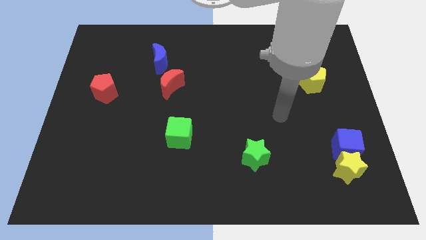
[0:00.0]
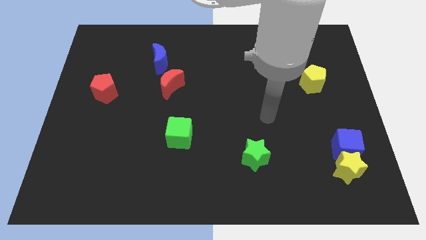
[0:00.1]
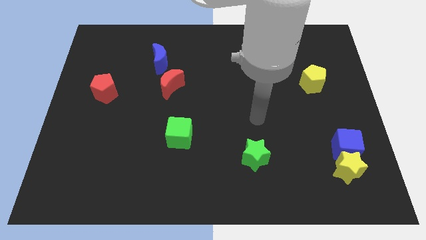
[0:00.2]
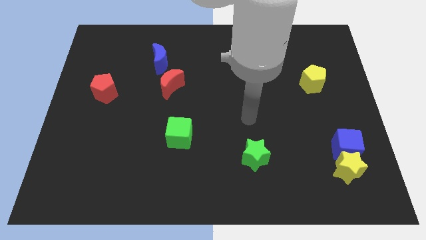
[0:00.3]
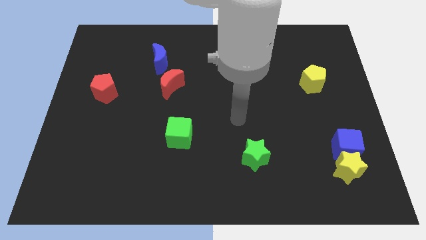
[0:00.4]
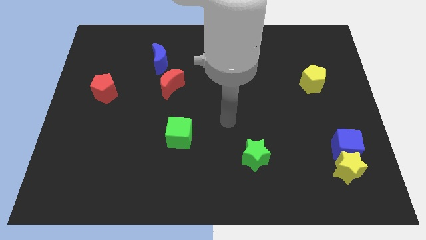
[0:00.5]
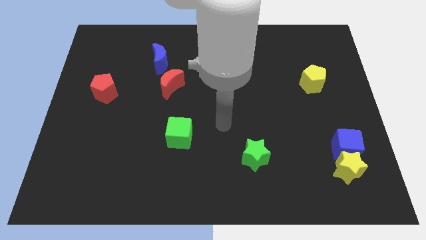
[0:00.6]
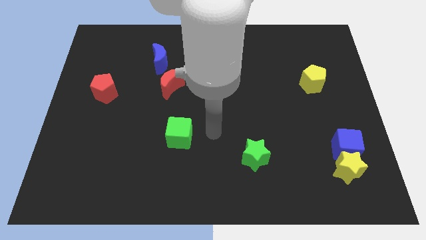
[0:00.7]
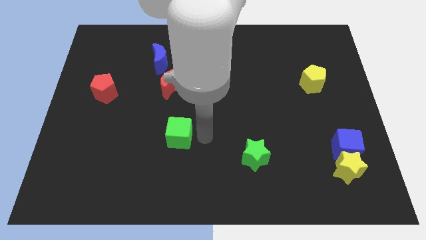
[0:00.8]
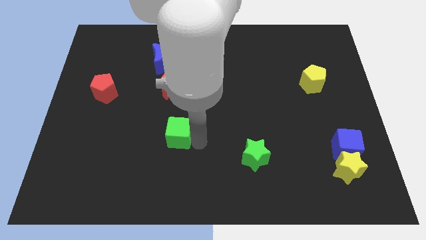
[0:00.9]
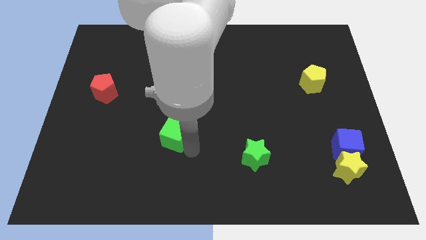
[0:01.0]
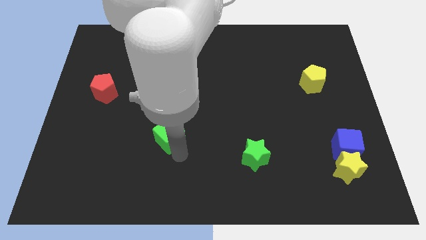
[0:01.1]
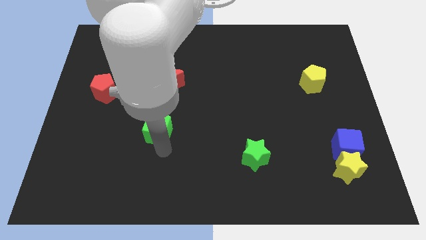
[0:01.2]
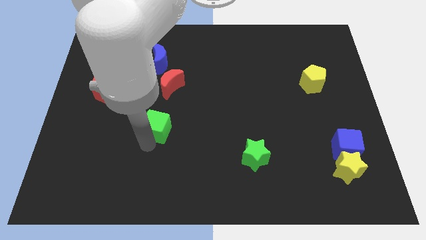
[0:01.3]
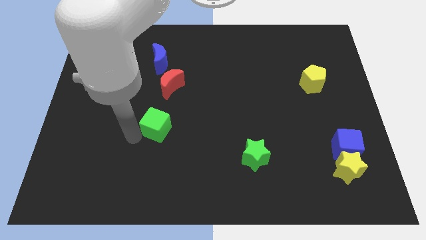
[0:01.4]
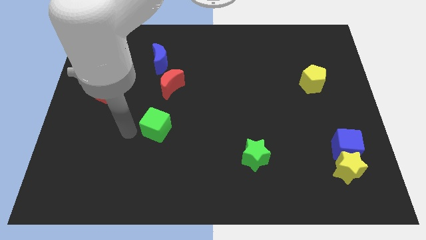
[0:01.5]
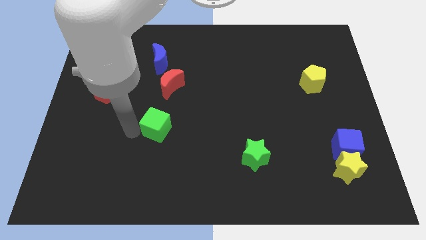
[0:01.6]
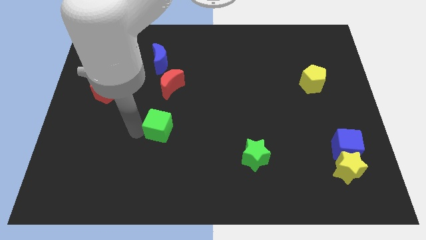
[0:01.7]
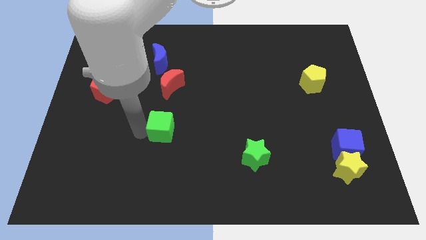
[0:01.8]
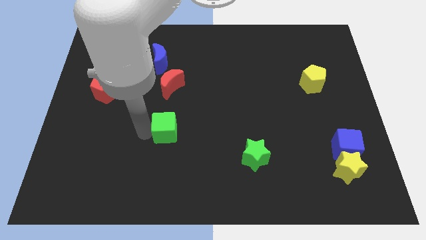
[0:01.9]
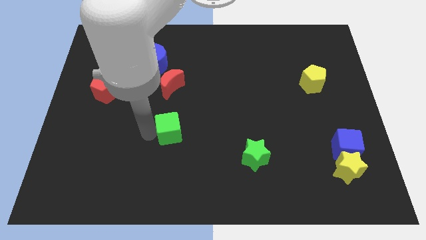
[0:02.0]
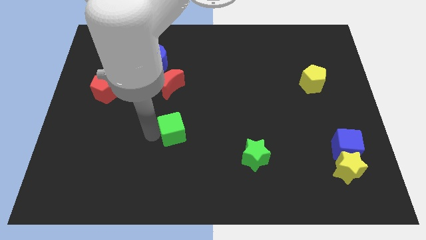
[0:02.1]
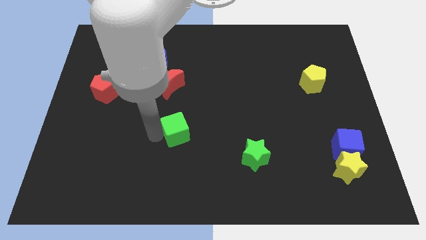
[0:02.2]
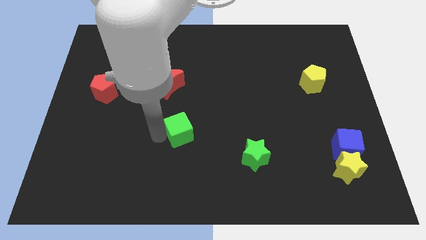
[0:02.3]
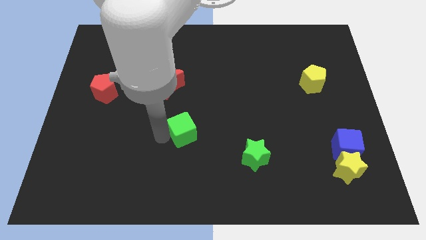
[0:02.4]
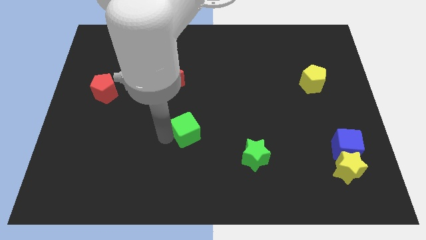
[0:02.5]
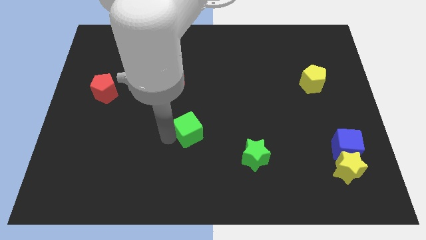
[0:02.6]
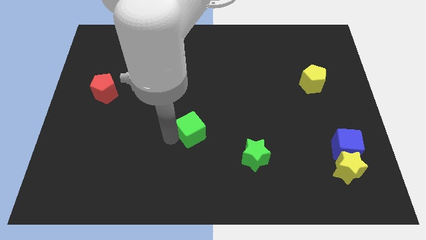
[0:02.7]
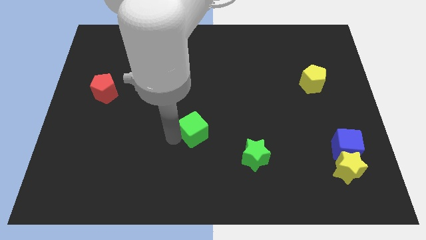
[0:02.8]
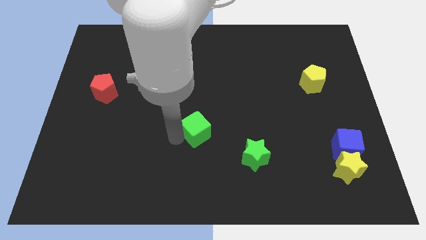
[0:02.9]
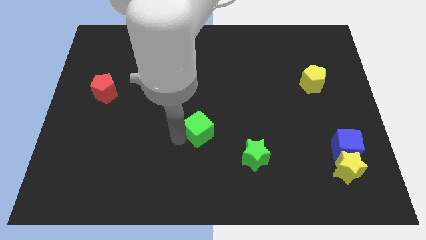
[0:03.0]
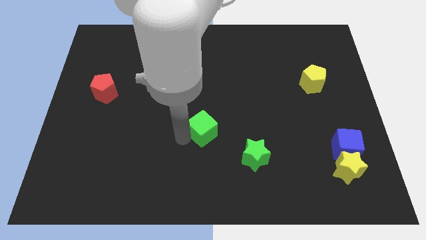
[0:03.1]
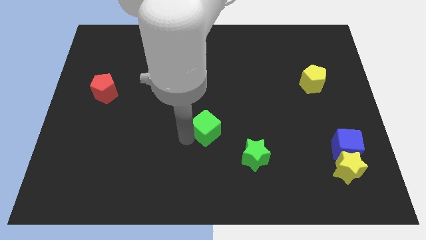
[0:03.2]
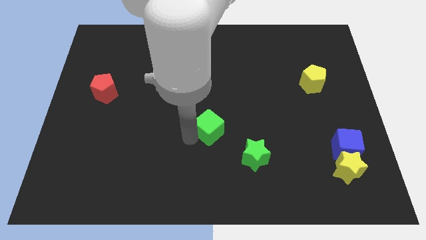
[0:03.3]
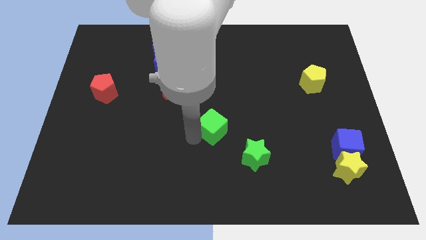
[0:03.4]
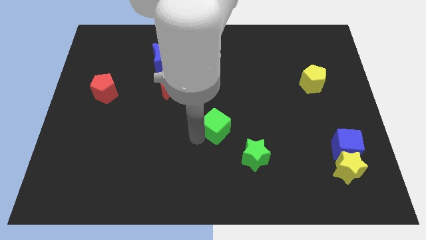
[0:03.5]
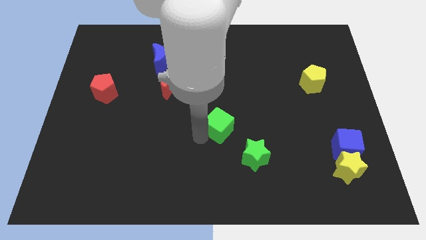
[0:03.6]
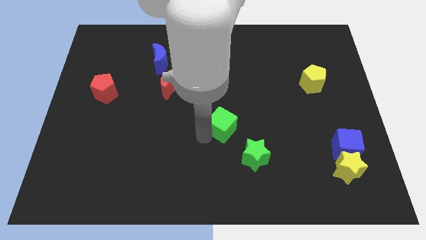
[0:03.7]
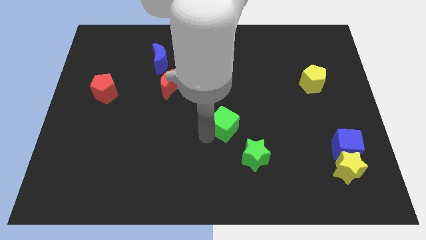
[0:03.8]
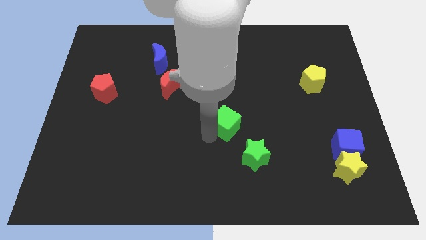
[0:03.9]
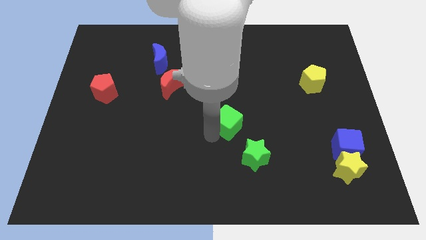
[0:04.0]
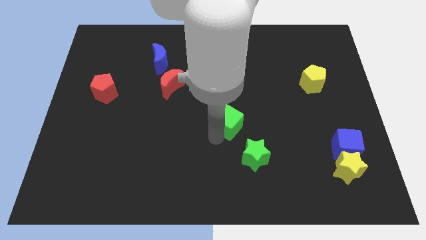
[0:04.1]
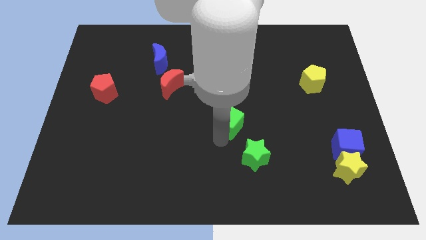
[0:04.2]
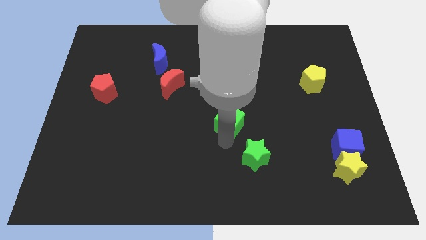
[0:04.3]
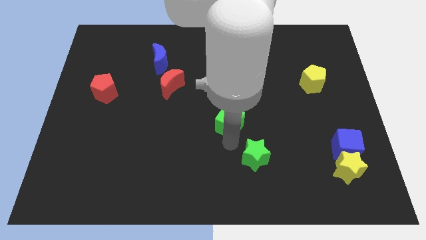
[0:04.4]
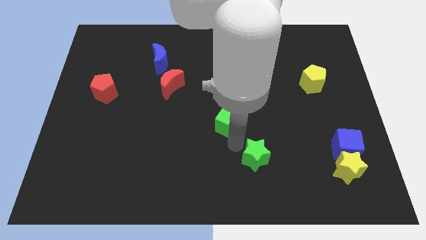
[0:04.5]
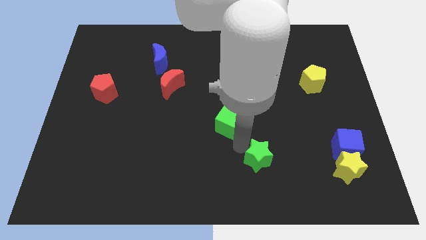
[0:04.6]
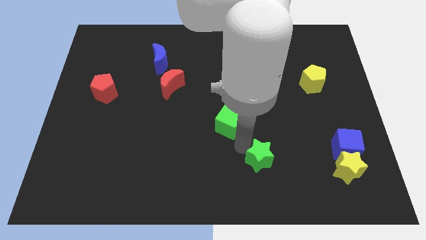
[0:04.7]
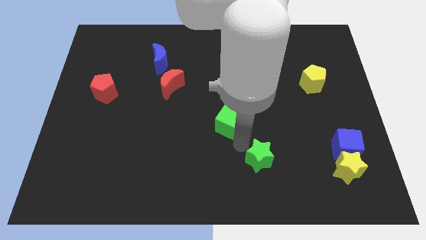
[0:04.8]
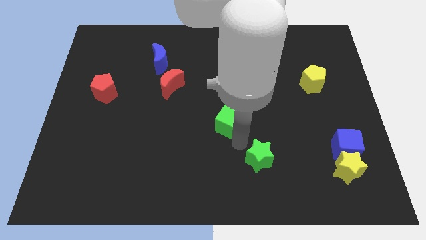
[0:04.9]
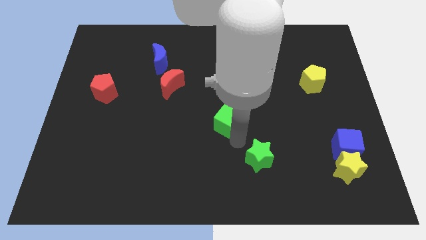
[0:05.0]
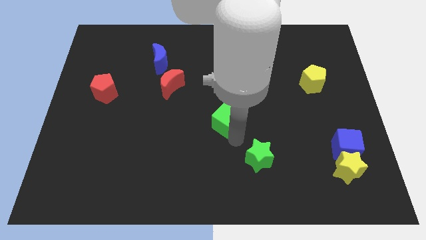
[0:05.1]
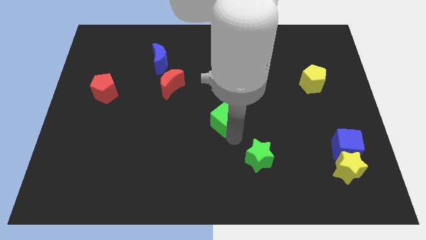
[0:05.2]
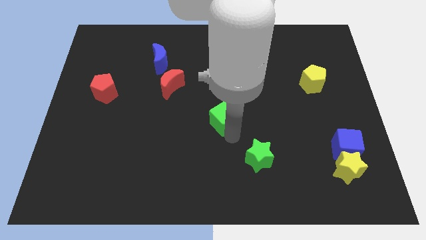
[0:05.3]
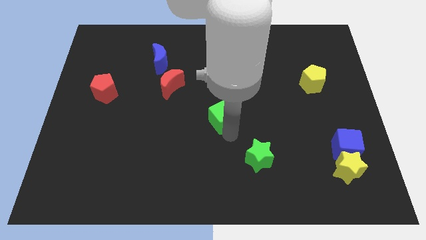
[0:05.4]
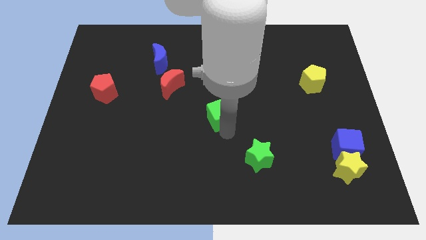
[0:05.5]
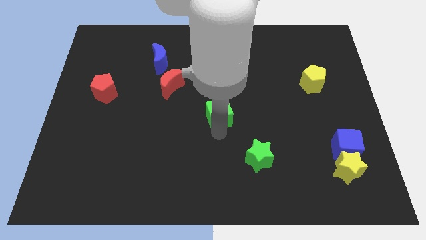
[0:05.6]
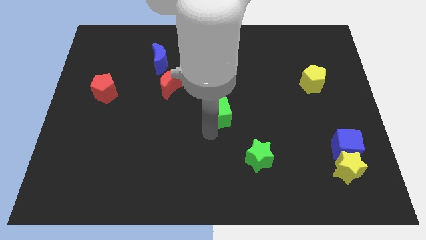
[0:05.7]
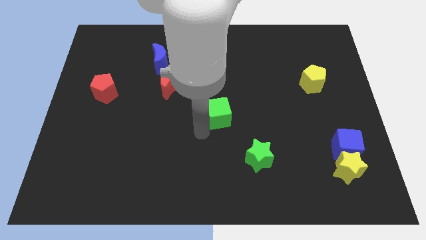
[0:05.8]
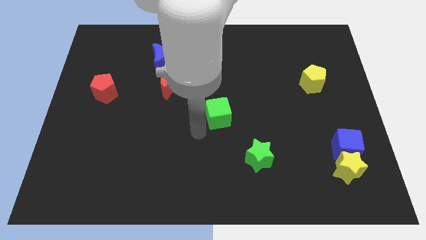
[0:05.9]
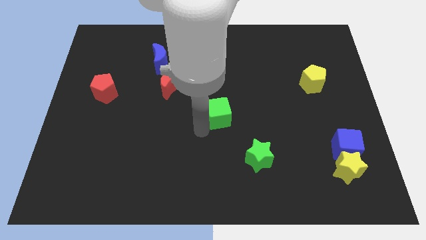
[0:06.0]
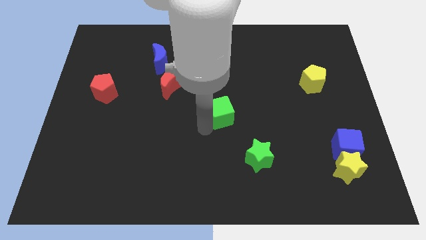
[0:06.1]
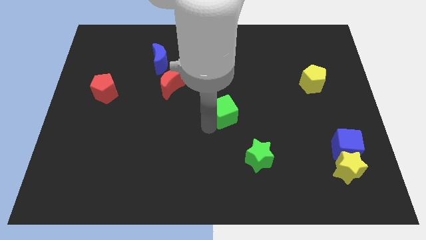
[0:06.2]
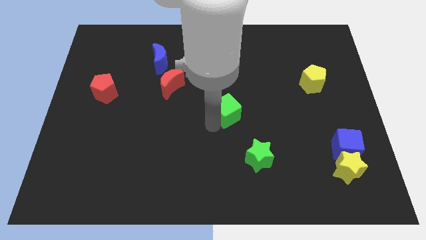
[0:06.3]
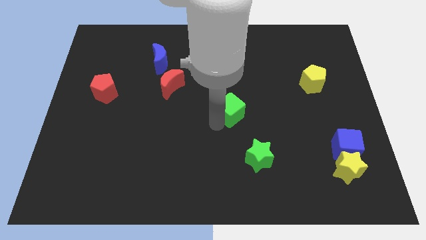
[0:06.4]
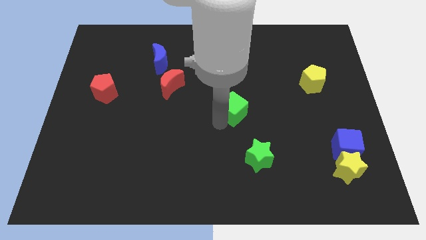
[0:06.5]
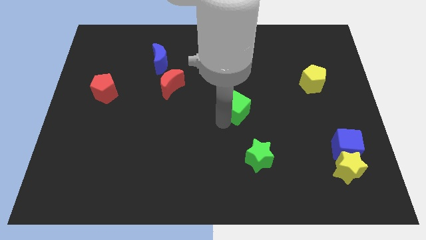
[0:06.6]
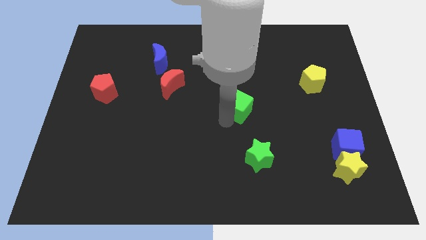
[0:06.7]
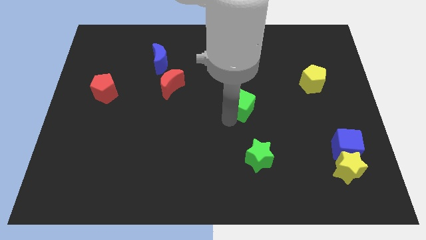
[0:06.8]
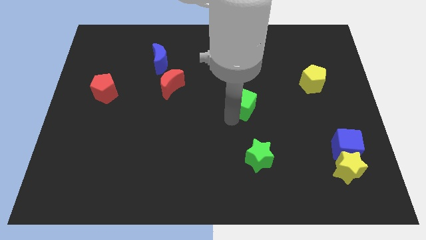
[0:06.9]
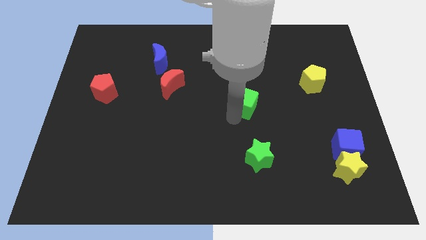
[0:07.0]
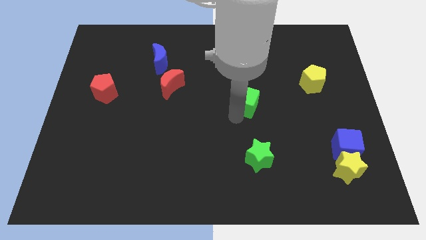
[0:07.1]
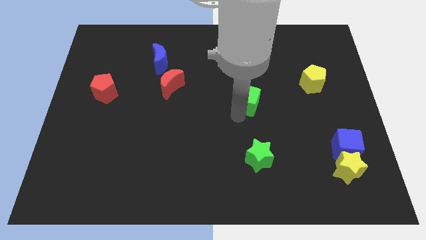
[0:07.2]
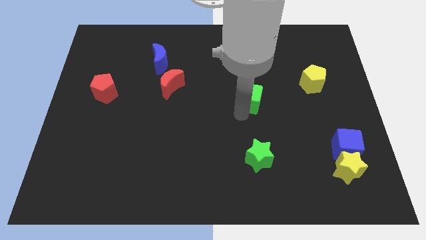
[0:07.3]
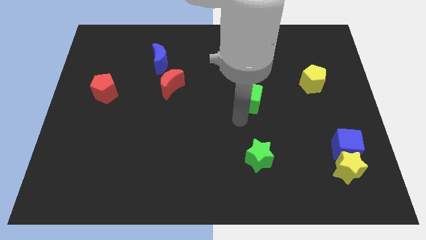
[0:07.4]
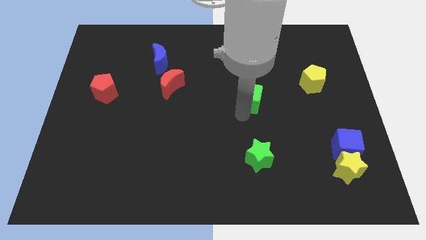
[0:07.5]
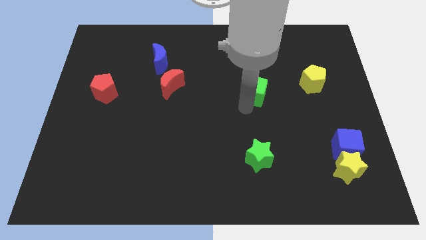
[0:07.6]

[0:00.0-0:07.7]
push the green cube upwards and to the right diagonally

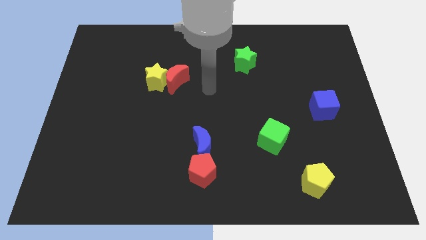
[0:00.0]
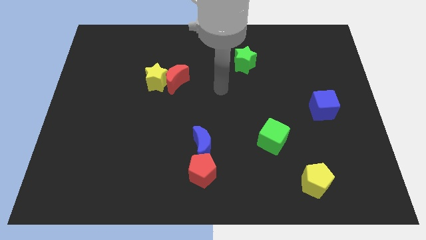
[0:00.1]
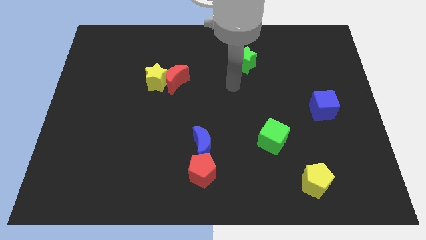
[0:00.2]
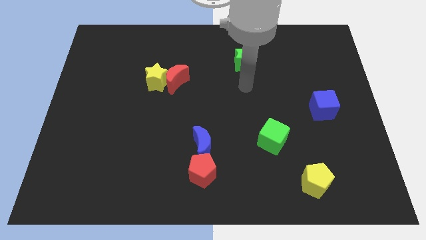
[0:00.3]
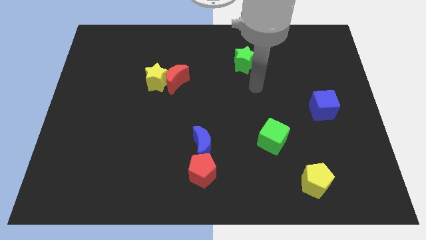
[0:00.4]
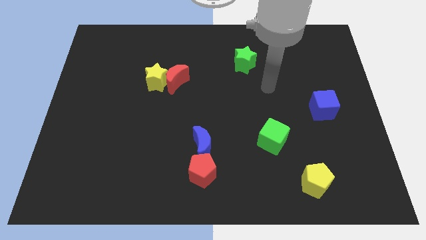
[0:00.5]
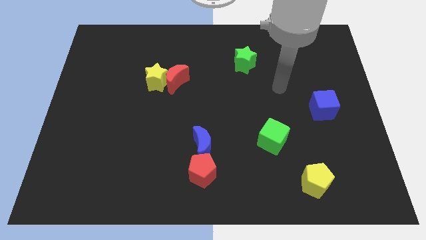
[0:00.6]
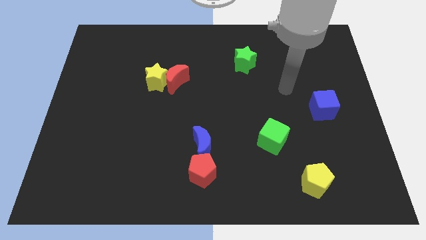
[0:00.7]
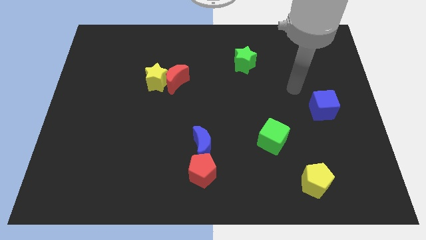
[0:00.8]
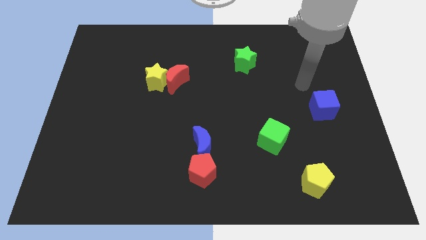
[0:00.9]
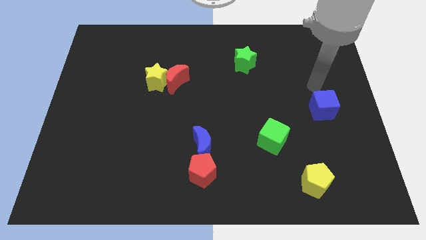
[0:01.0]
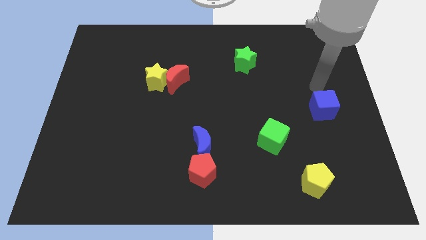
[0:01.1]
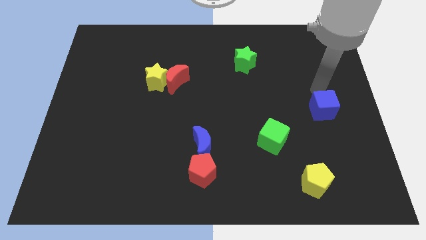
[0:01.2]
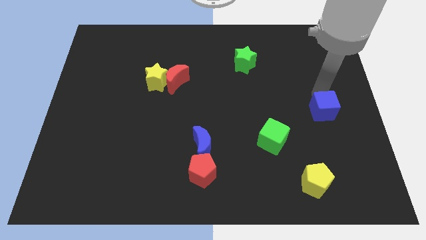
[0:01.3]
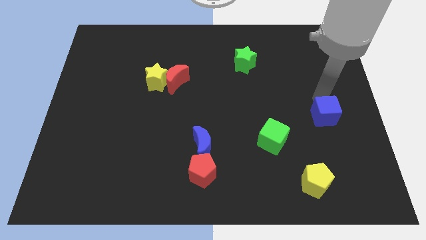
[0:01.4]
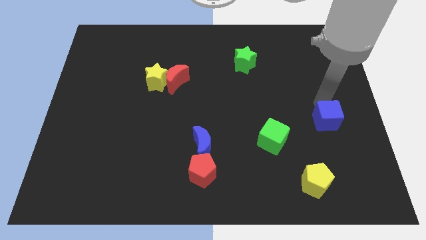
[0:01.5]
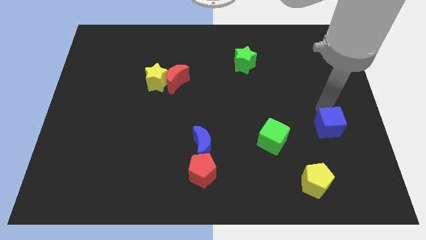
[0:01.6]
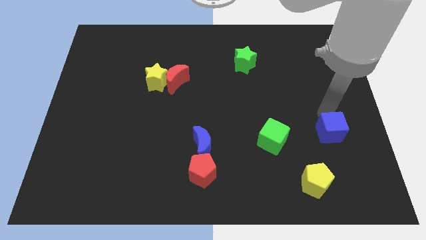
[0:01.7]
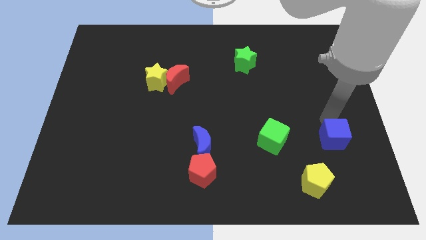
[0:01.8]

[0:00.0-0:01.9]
push the blue cube somewhat downwards
